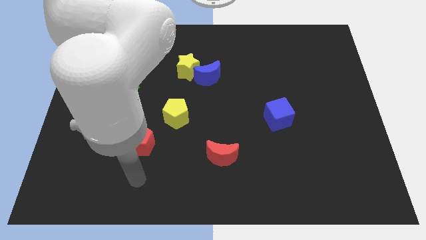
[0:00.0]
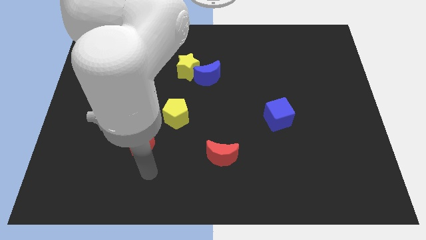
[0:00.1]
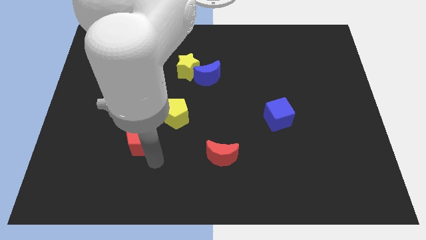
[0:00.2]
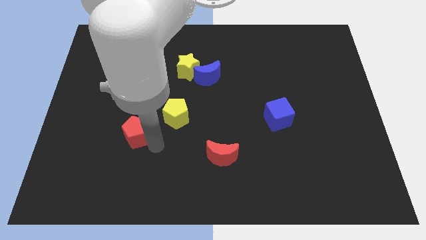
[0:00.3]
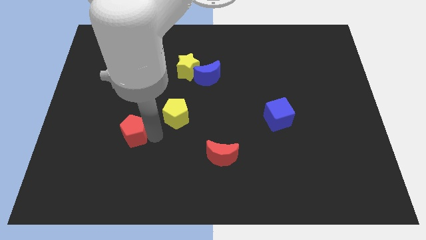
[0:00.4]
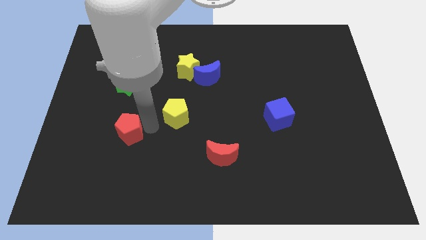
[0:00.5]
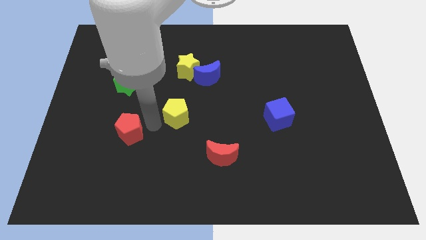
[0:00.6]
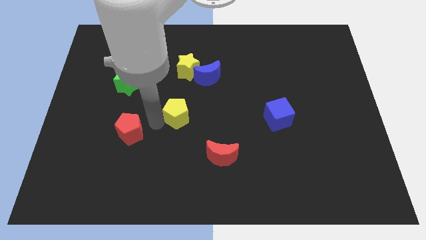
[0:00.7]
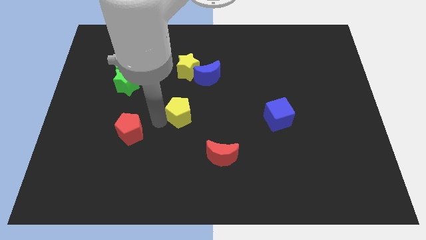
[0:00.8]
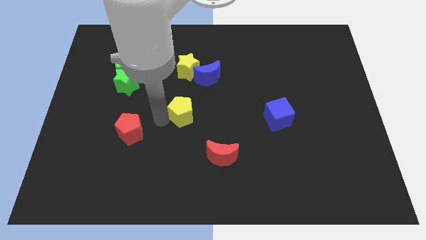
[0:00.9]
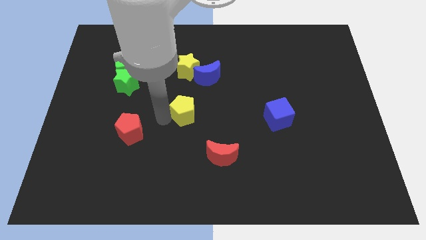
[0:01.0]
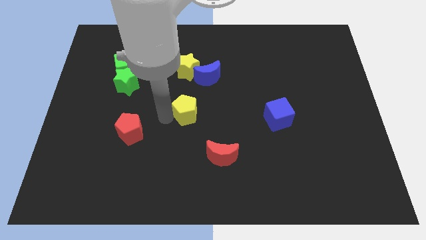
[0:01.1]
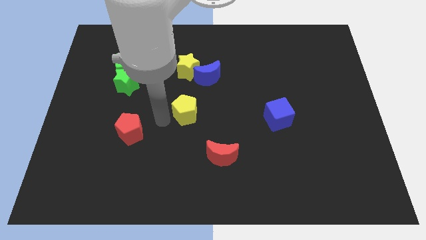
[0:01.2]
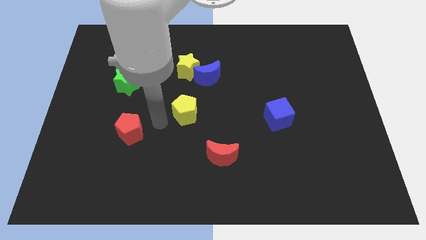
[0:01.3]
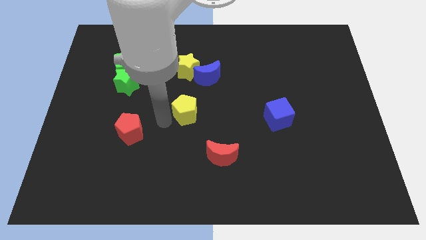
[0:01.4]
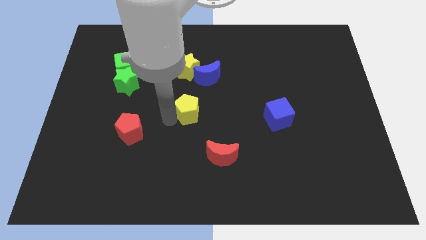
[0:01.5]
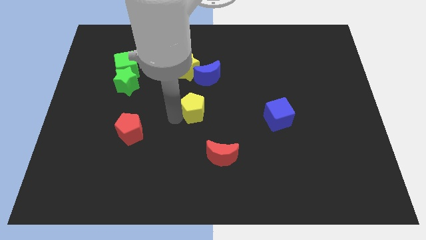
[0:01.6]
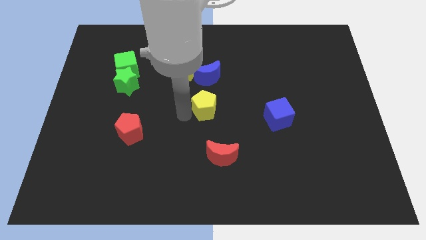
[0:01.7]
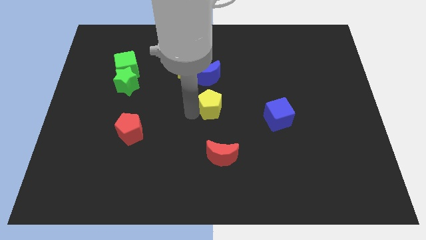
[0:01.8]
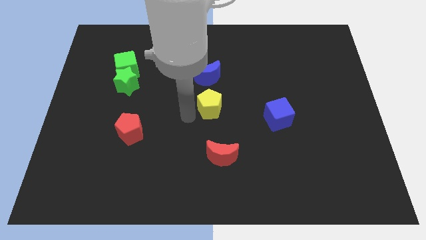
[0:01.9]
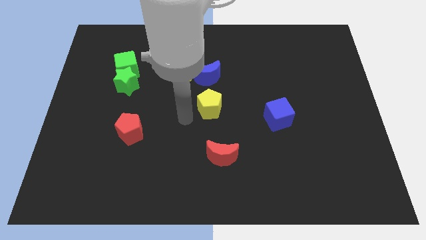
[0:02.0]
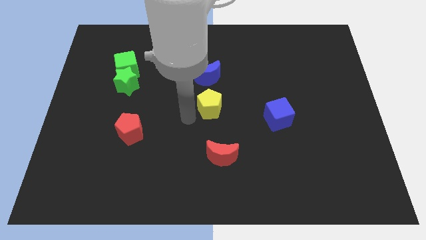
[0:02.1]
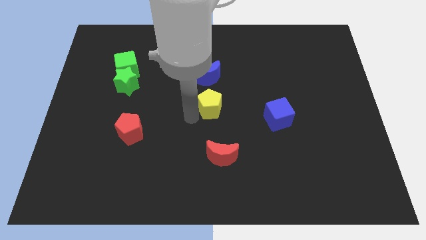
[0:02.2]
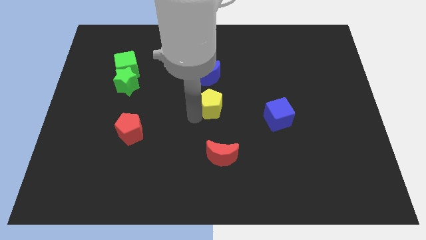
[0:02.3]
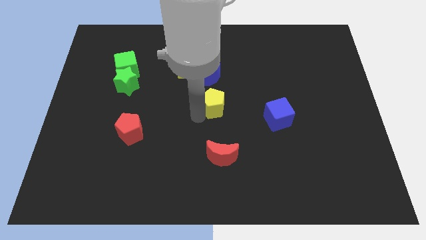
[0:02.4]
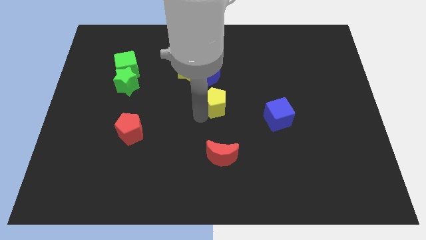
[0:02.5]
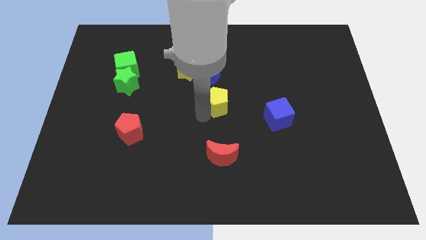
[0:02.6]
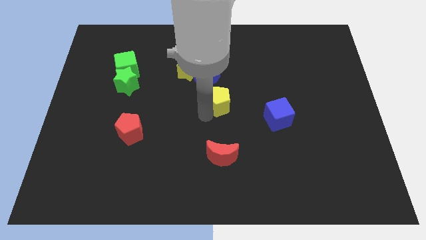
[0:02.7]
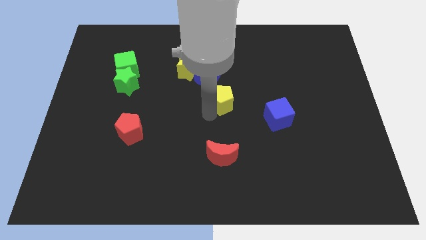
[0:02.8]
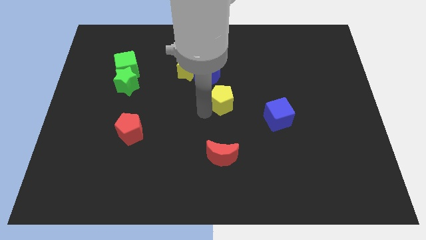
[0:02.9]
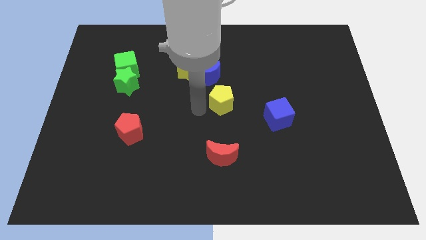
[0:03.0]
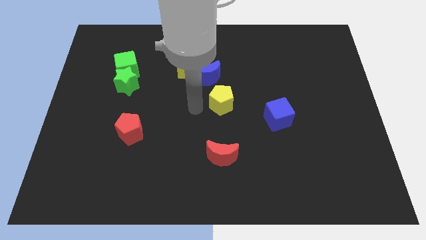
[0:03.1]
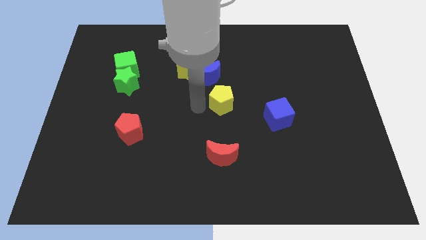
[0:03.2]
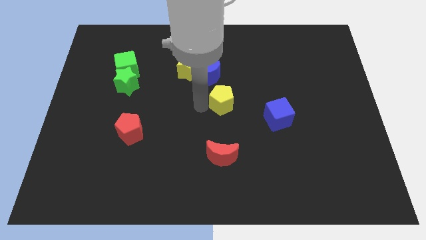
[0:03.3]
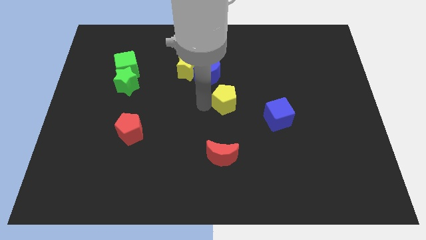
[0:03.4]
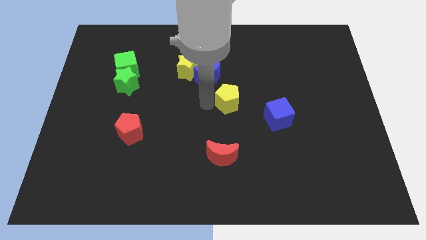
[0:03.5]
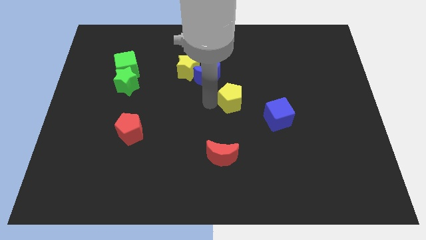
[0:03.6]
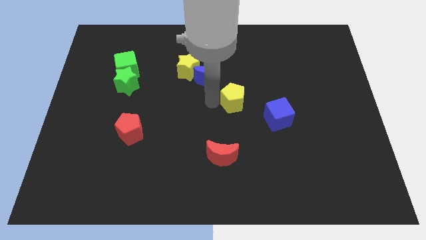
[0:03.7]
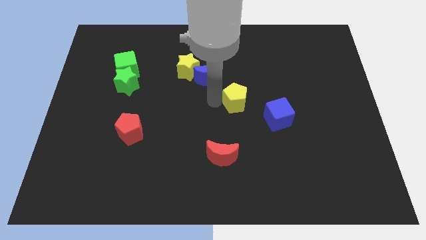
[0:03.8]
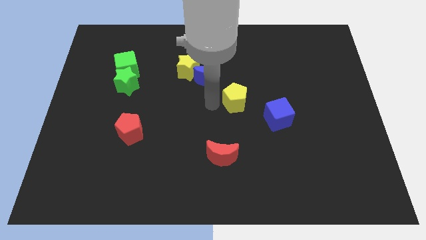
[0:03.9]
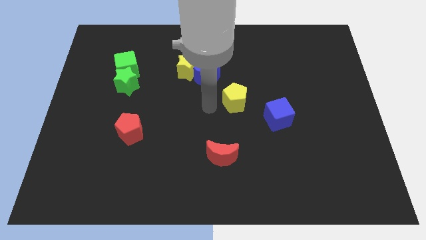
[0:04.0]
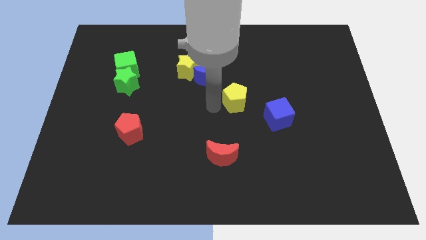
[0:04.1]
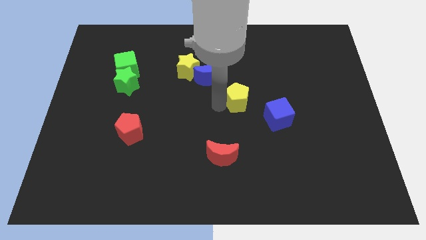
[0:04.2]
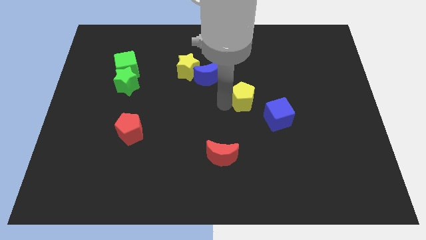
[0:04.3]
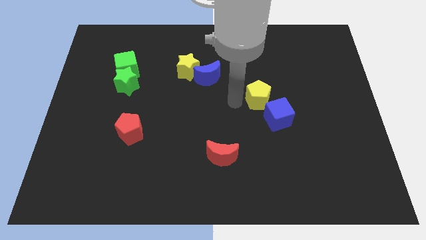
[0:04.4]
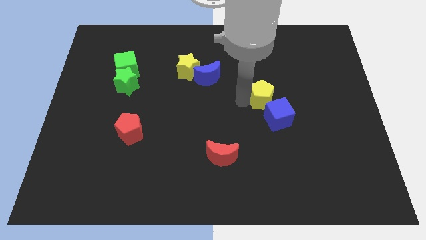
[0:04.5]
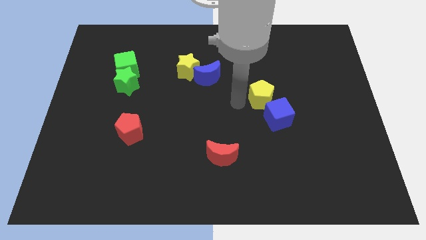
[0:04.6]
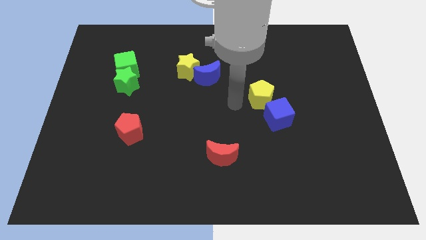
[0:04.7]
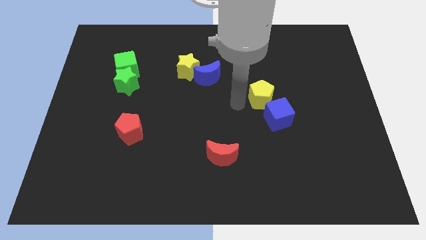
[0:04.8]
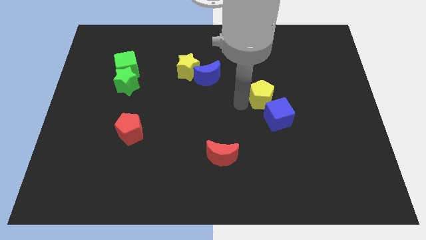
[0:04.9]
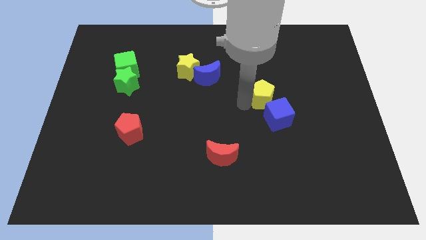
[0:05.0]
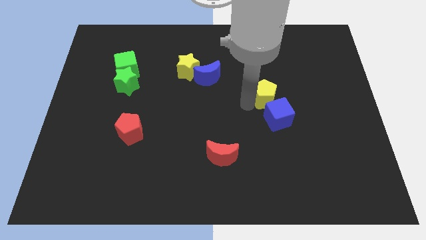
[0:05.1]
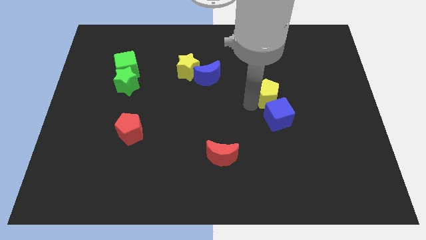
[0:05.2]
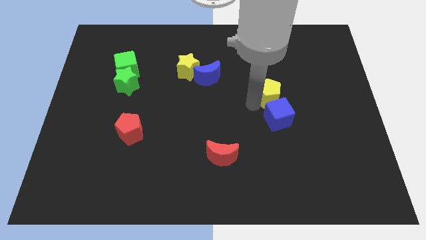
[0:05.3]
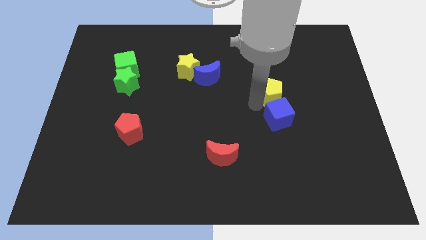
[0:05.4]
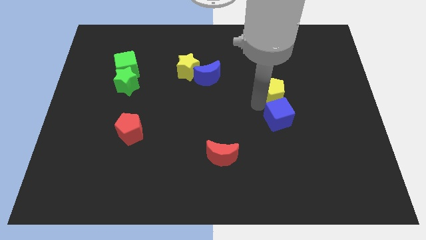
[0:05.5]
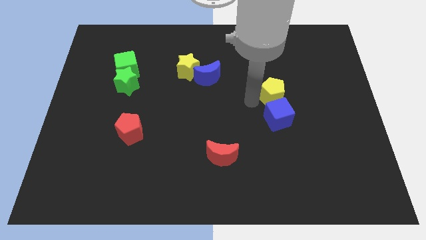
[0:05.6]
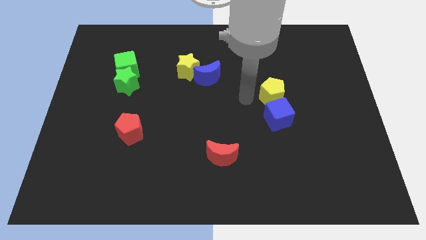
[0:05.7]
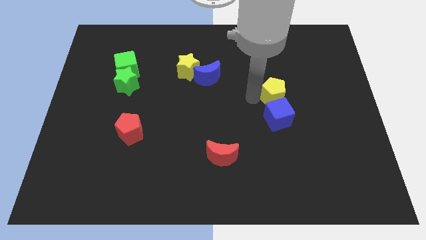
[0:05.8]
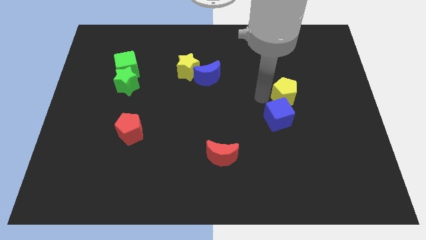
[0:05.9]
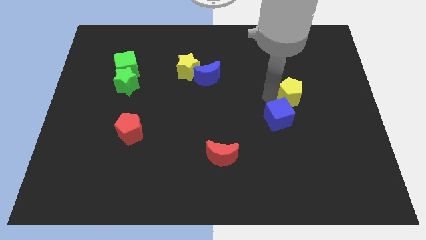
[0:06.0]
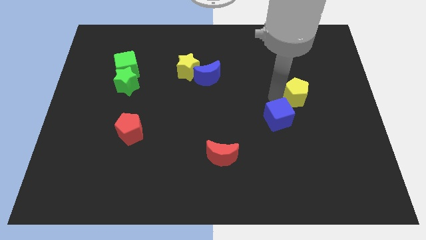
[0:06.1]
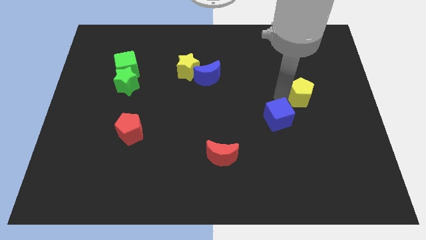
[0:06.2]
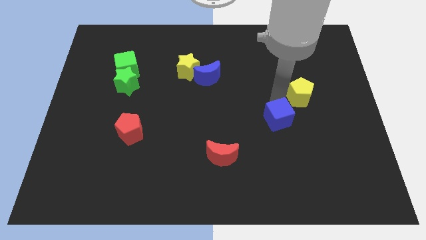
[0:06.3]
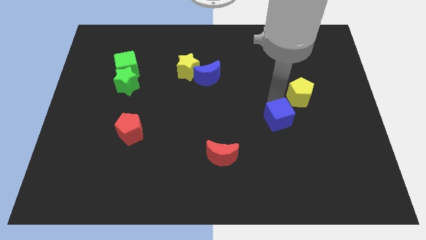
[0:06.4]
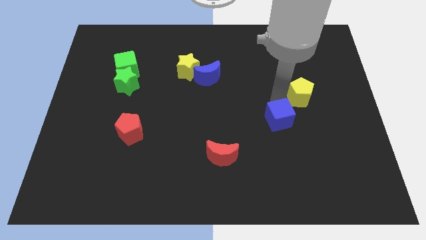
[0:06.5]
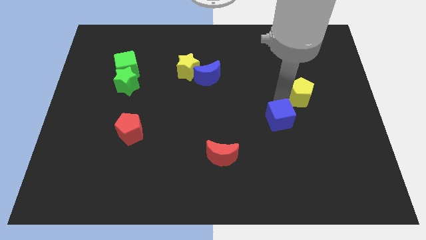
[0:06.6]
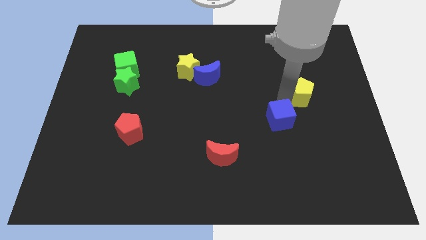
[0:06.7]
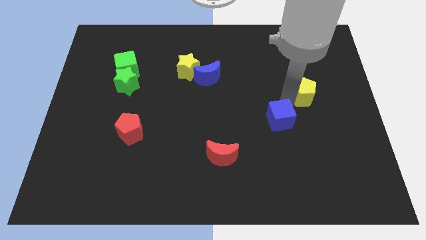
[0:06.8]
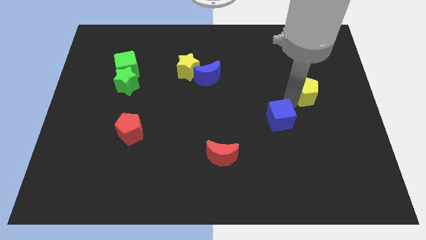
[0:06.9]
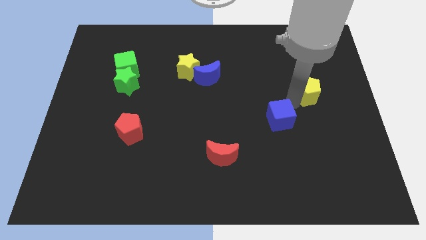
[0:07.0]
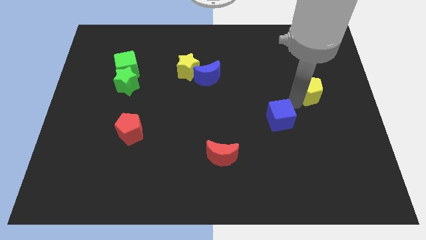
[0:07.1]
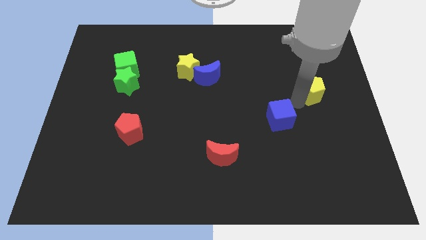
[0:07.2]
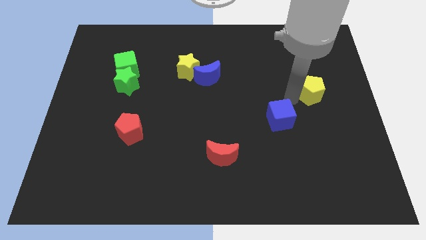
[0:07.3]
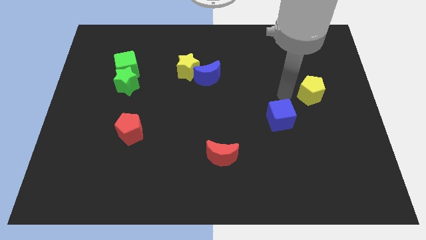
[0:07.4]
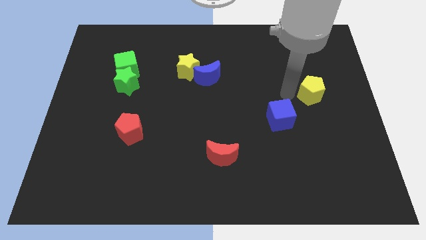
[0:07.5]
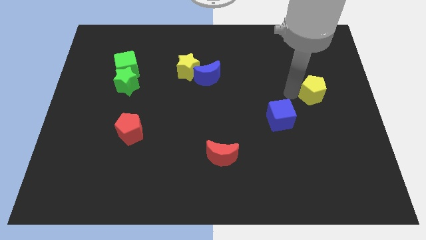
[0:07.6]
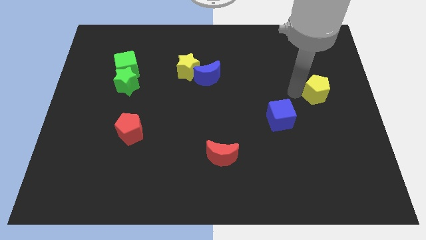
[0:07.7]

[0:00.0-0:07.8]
push the yellow pentagon to the right side
